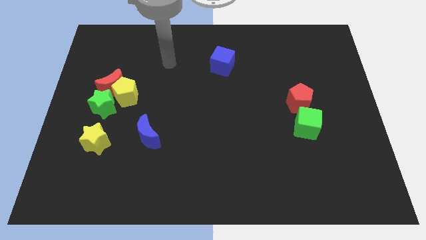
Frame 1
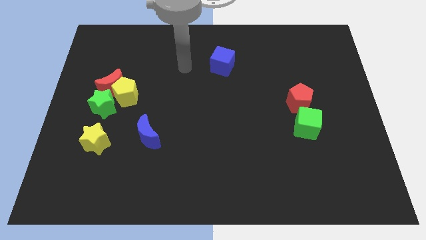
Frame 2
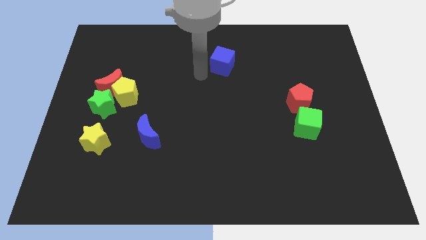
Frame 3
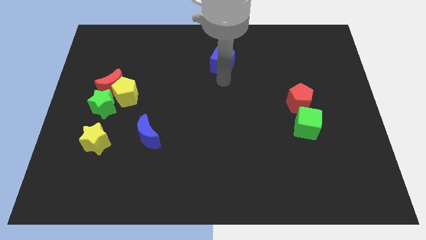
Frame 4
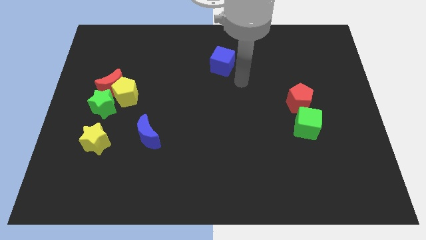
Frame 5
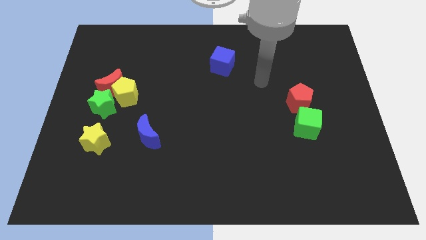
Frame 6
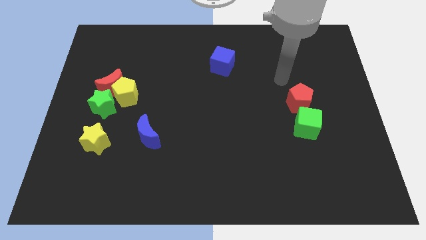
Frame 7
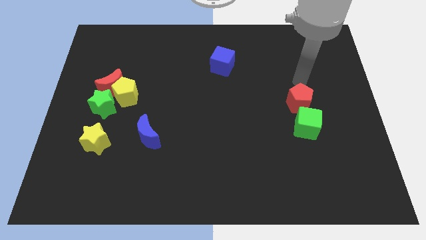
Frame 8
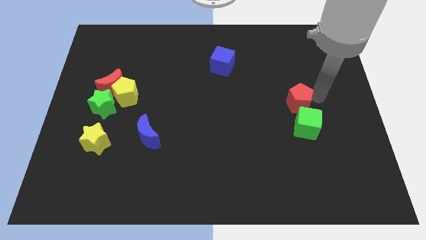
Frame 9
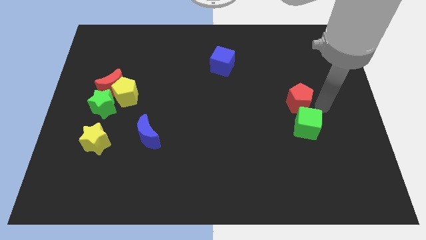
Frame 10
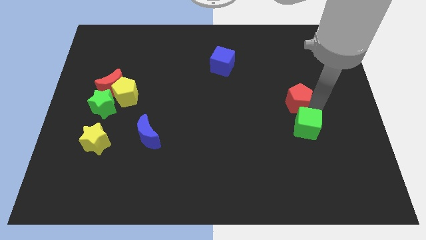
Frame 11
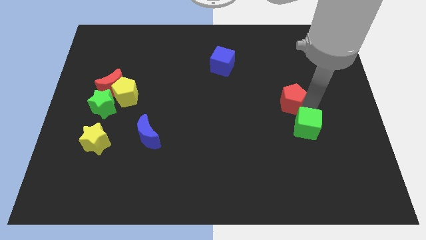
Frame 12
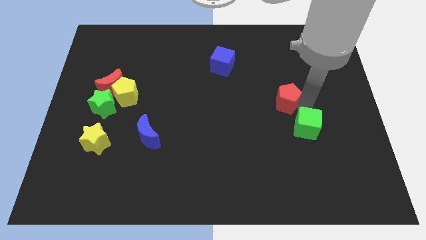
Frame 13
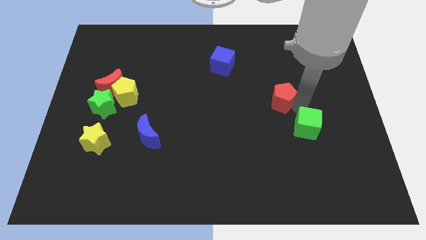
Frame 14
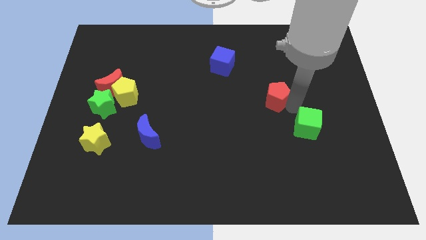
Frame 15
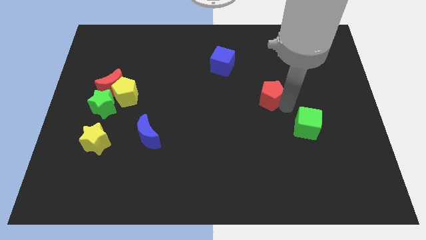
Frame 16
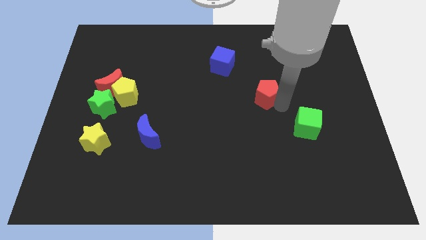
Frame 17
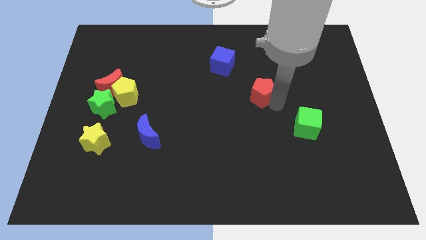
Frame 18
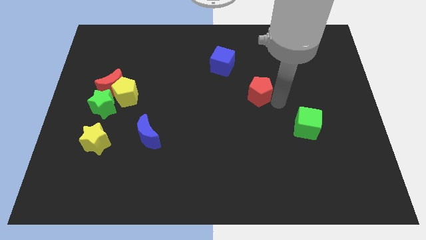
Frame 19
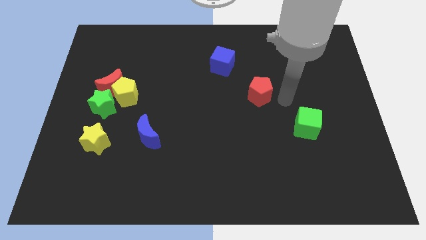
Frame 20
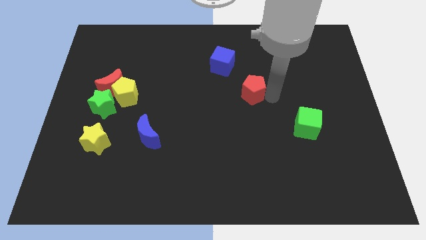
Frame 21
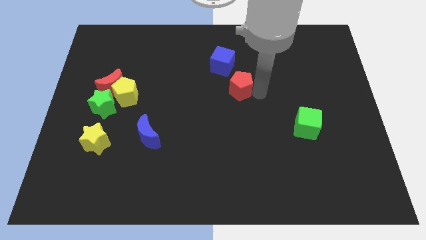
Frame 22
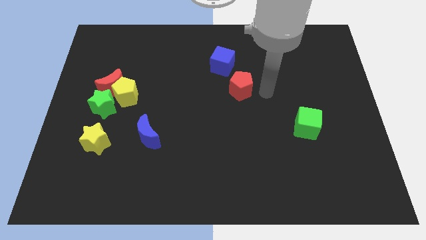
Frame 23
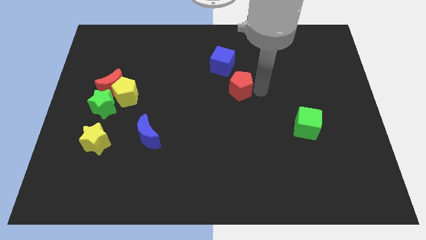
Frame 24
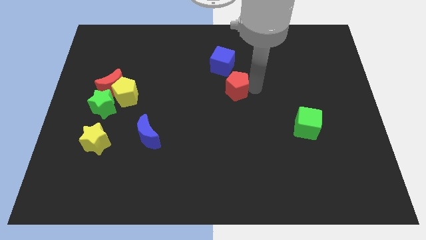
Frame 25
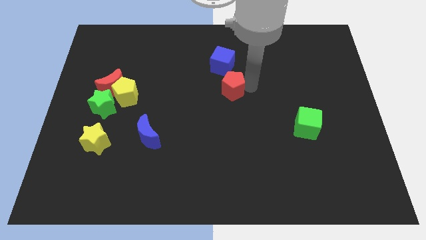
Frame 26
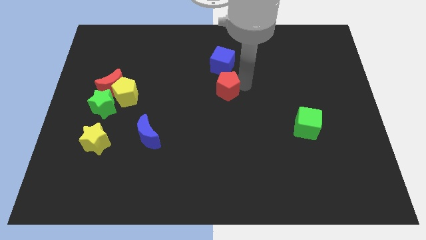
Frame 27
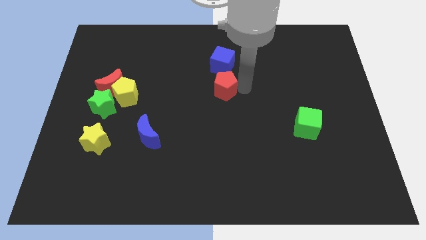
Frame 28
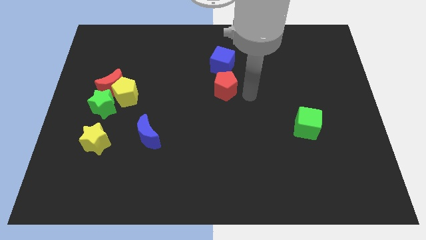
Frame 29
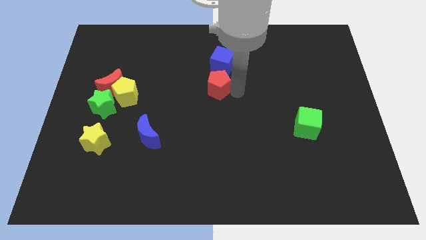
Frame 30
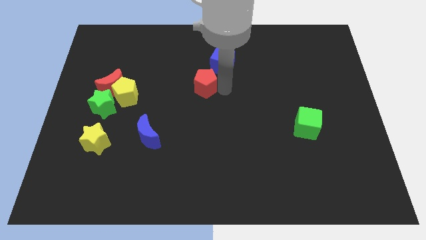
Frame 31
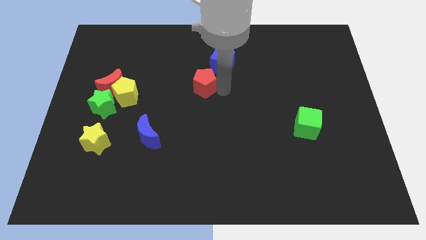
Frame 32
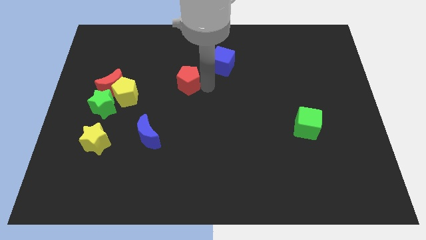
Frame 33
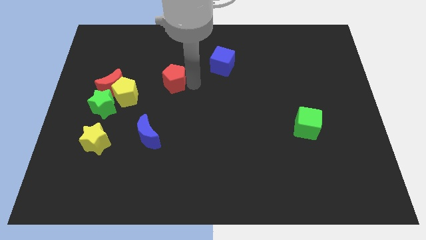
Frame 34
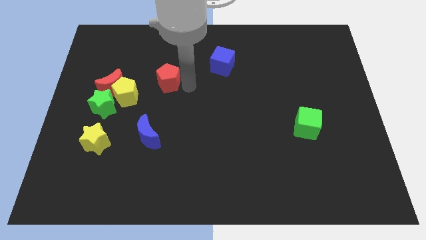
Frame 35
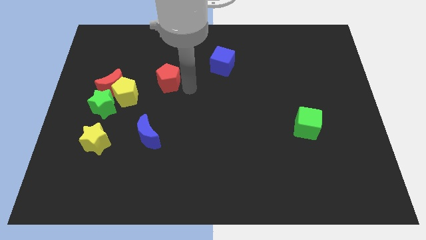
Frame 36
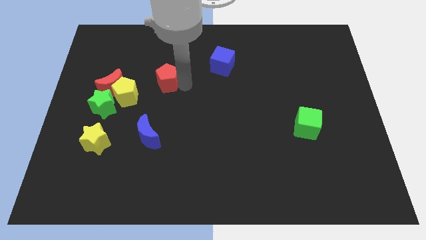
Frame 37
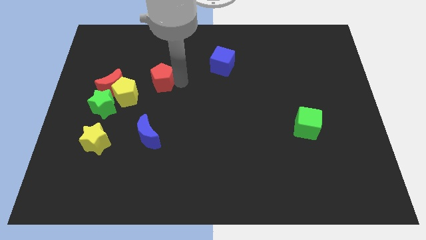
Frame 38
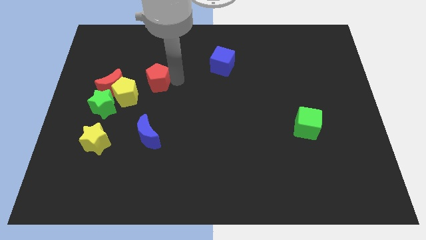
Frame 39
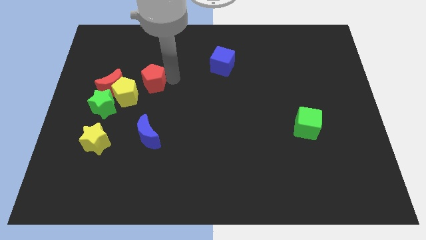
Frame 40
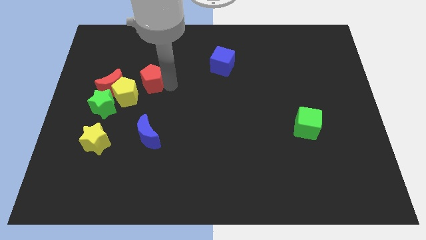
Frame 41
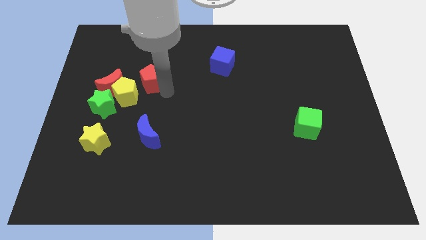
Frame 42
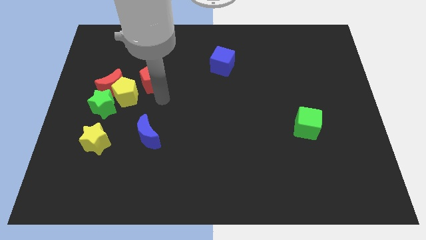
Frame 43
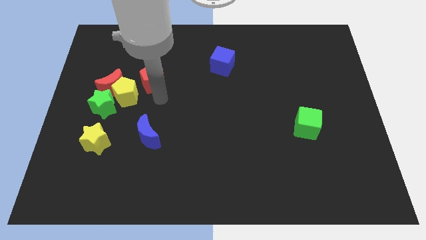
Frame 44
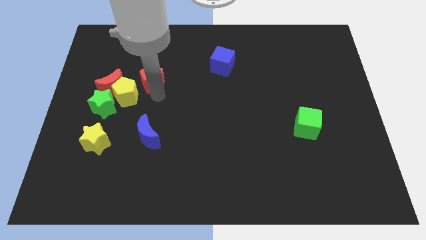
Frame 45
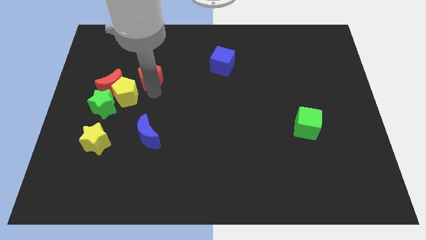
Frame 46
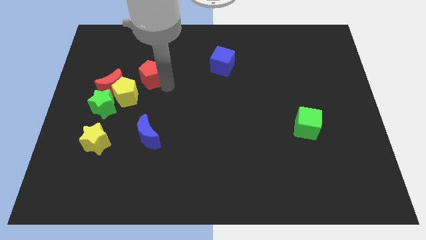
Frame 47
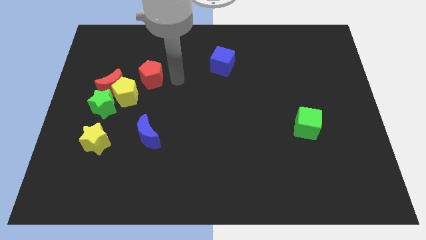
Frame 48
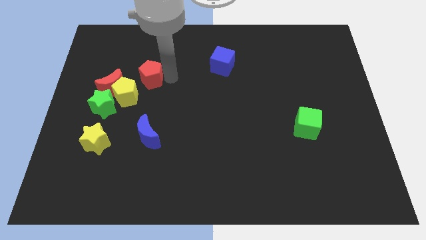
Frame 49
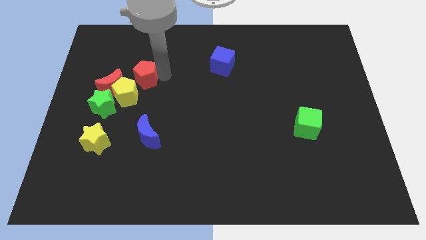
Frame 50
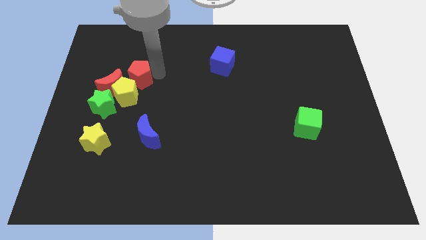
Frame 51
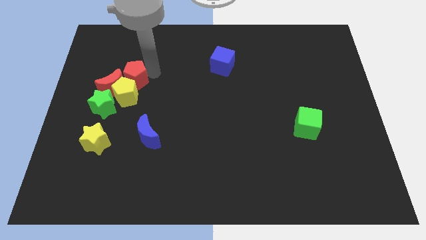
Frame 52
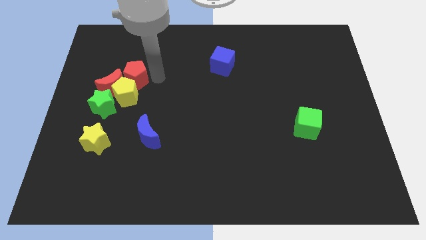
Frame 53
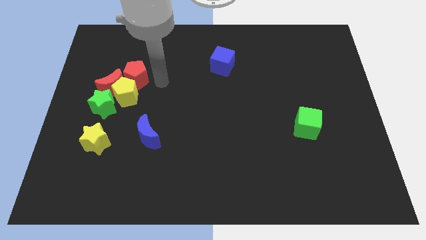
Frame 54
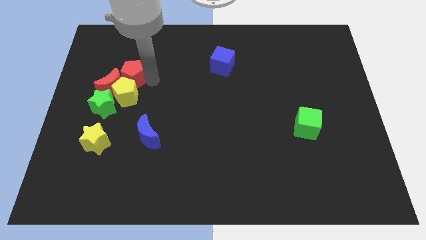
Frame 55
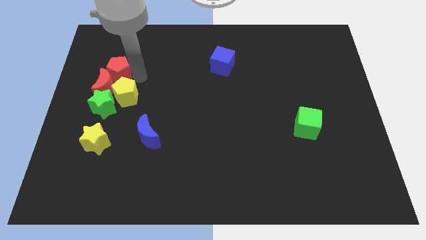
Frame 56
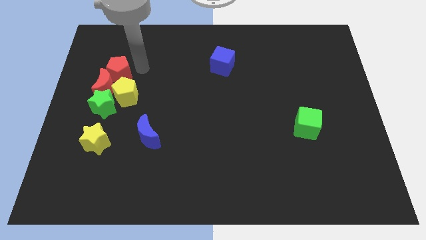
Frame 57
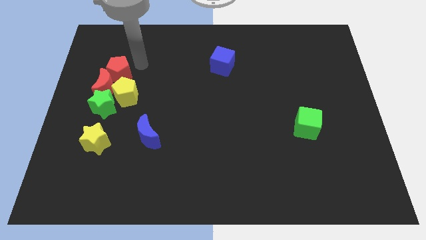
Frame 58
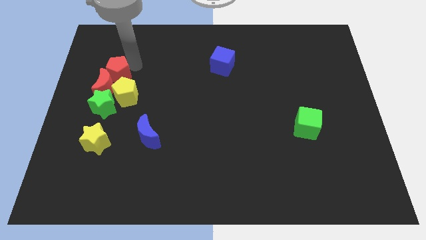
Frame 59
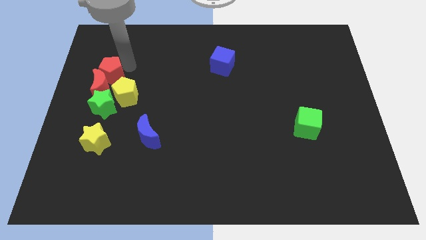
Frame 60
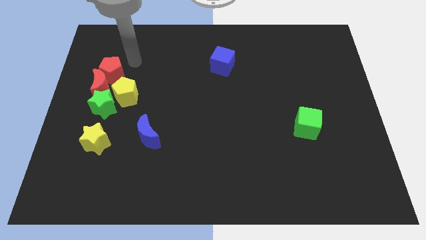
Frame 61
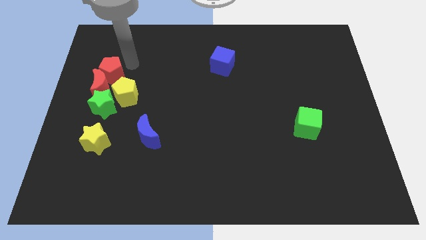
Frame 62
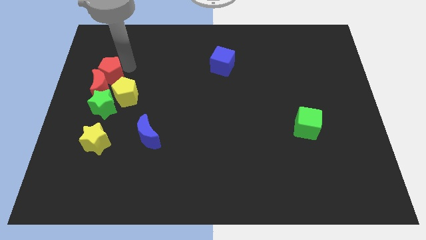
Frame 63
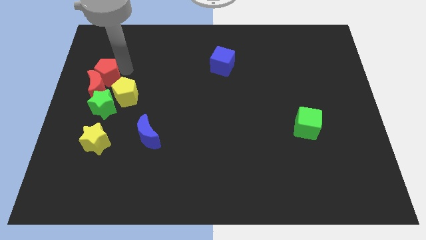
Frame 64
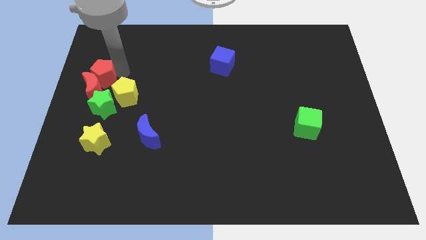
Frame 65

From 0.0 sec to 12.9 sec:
put the red pentagon to the left side of the board
